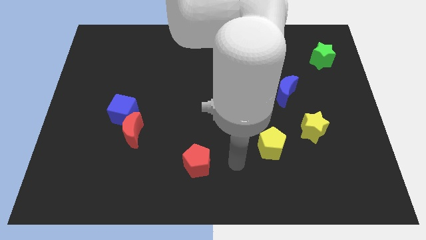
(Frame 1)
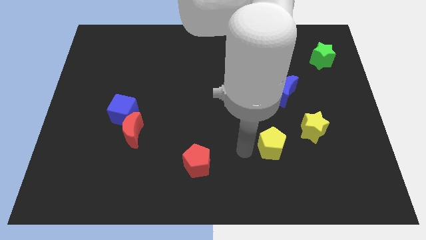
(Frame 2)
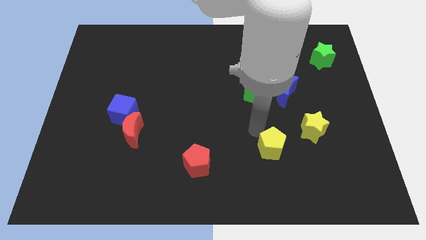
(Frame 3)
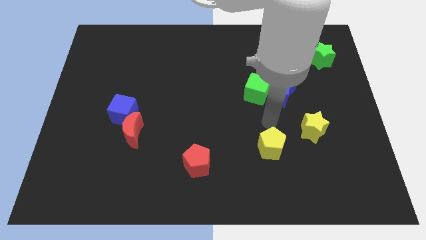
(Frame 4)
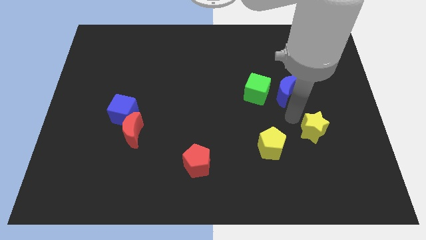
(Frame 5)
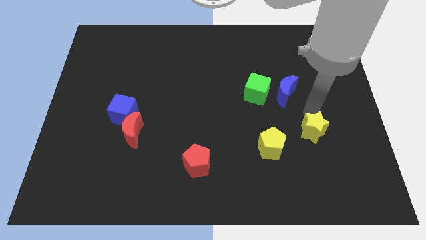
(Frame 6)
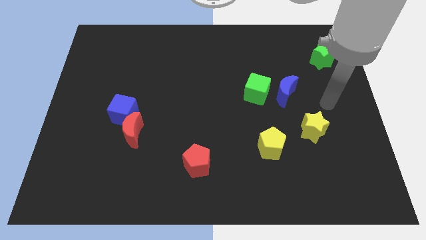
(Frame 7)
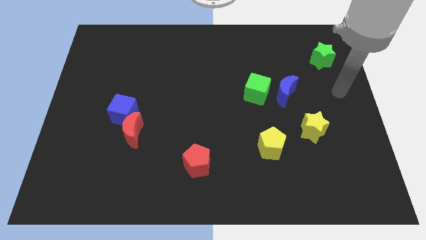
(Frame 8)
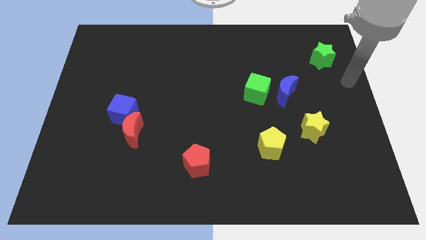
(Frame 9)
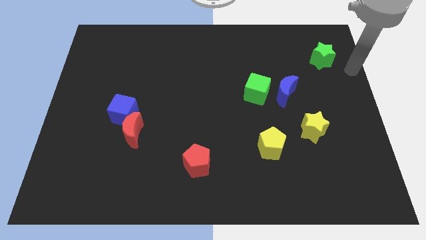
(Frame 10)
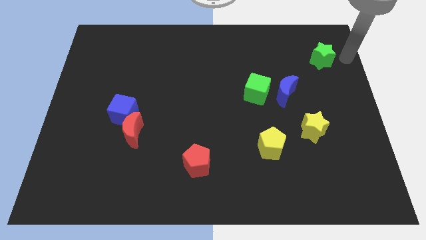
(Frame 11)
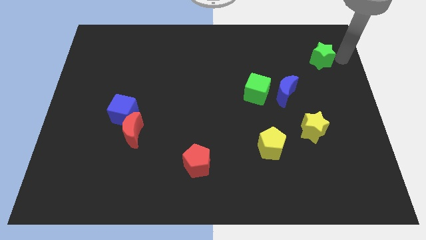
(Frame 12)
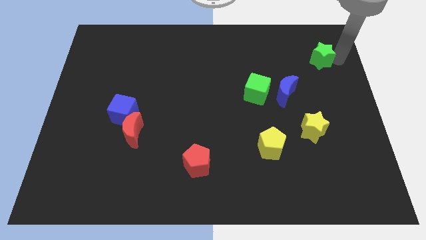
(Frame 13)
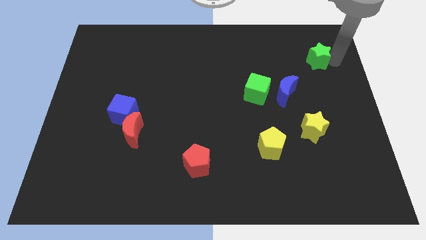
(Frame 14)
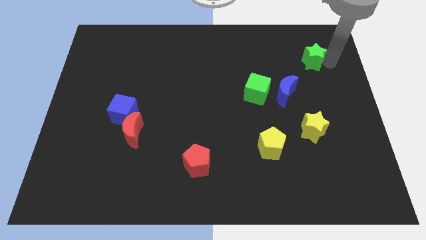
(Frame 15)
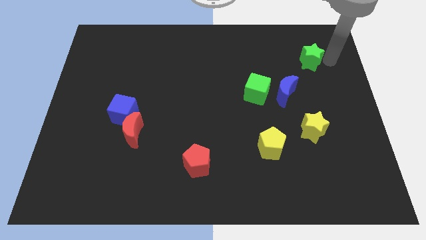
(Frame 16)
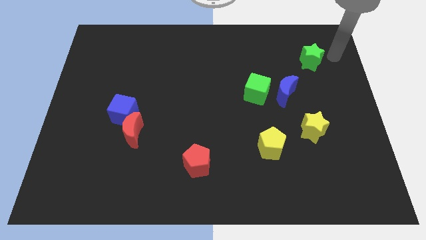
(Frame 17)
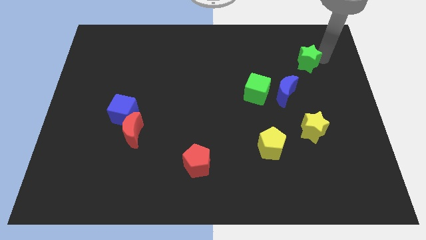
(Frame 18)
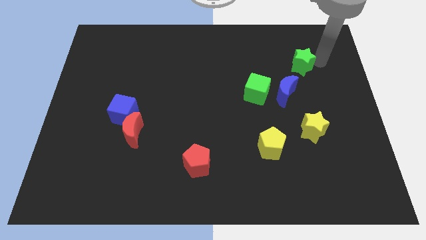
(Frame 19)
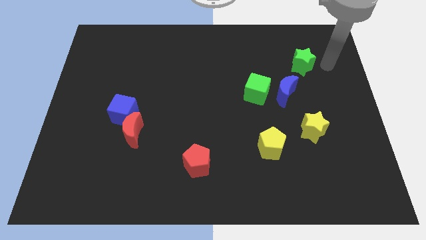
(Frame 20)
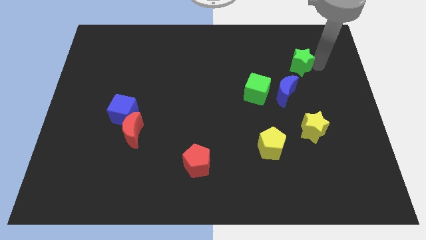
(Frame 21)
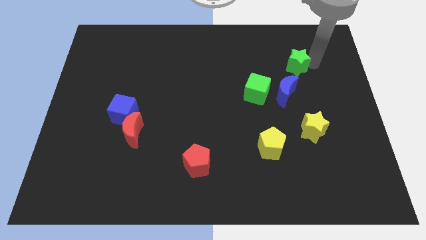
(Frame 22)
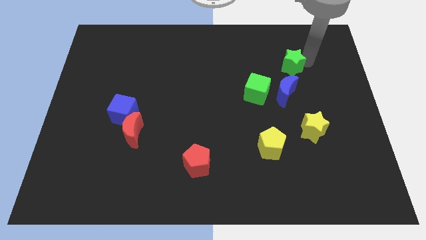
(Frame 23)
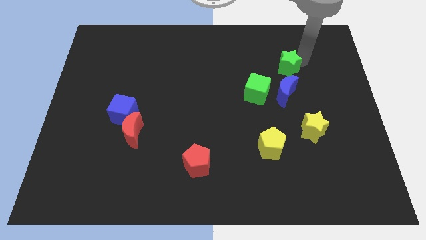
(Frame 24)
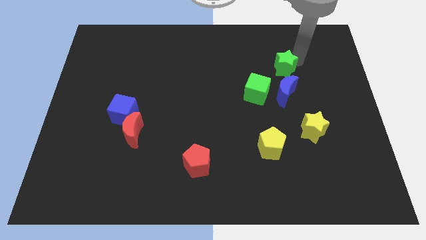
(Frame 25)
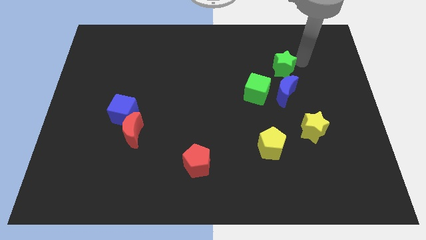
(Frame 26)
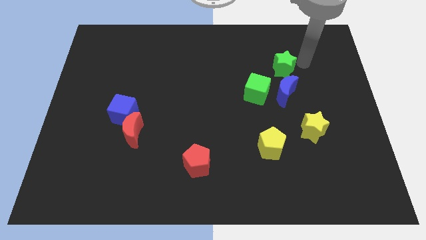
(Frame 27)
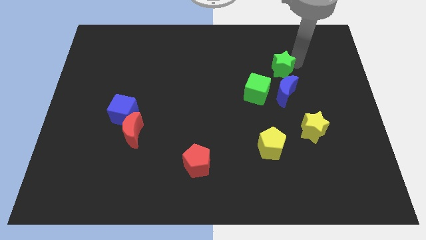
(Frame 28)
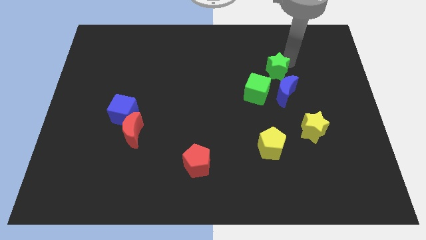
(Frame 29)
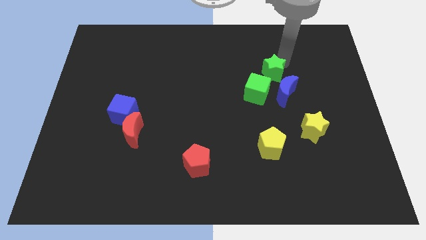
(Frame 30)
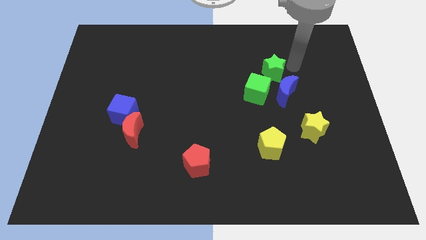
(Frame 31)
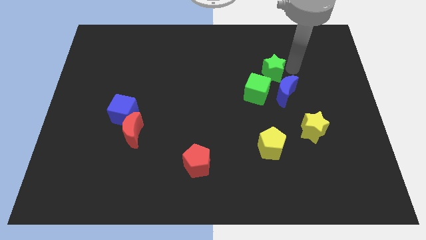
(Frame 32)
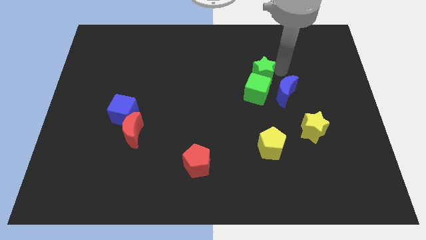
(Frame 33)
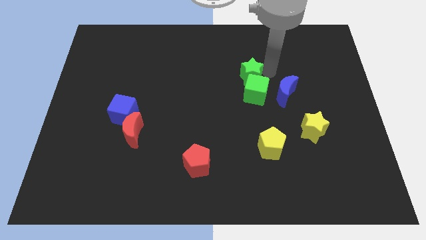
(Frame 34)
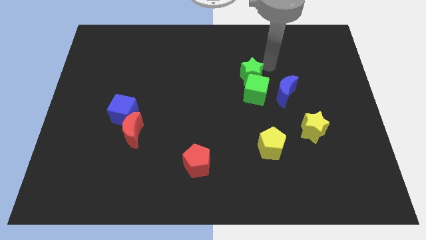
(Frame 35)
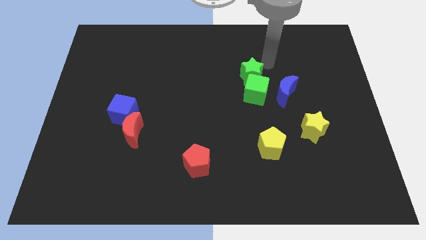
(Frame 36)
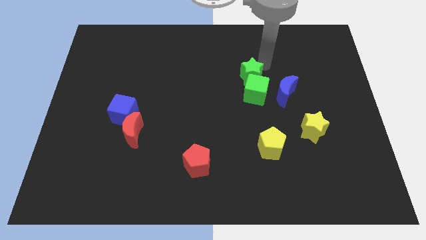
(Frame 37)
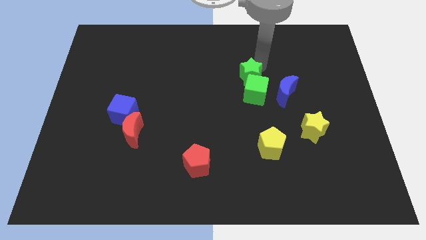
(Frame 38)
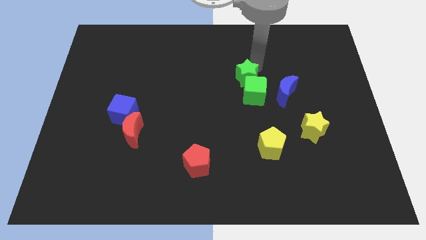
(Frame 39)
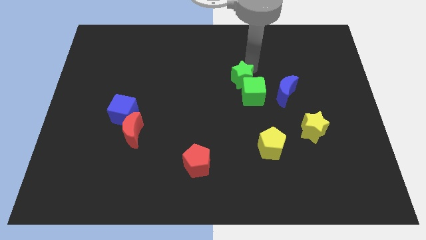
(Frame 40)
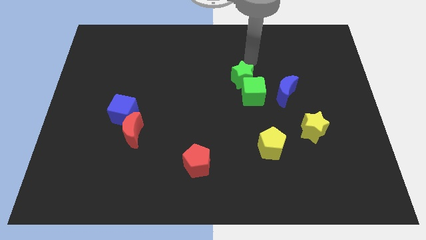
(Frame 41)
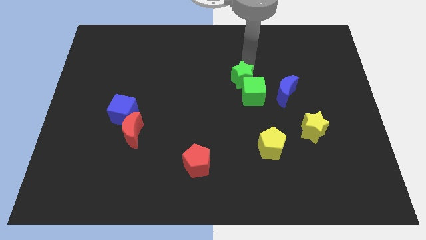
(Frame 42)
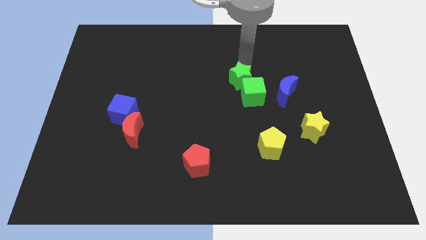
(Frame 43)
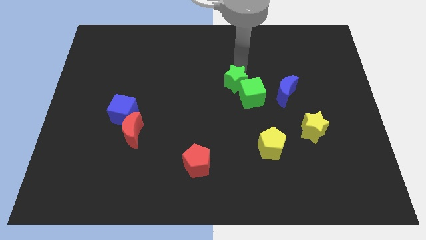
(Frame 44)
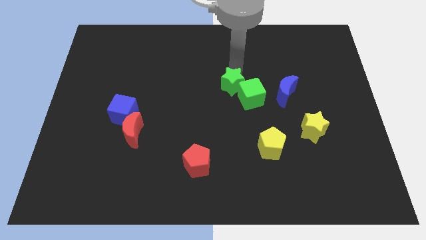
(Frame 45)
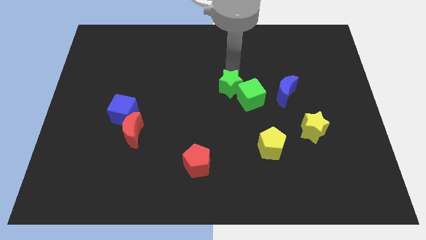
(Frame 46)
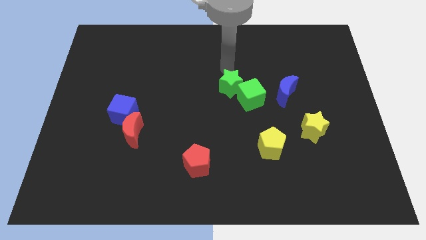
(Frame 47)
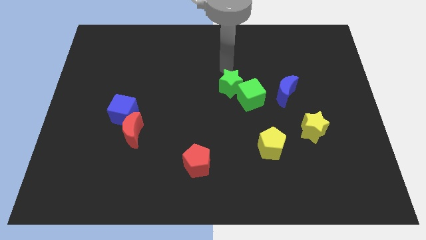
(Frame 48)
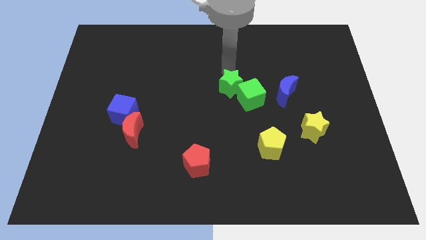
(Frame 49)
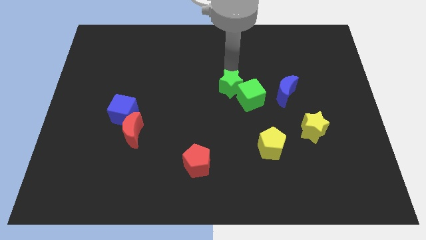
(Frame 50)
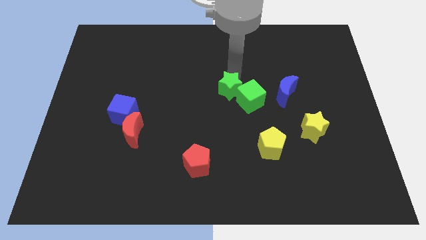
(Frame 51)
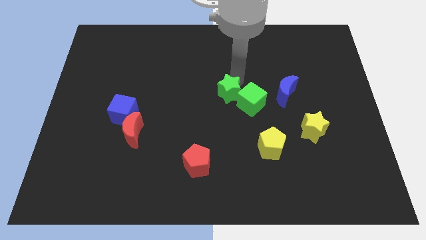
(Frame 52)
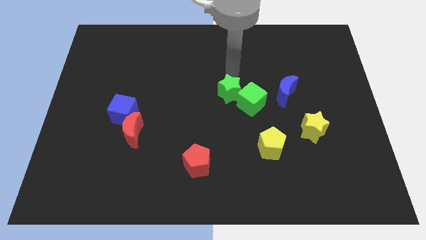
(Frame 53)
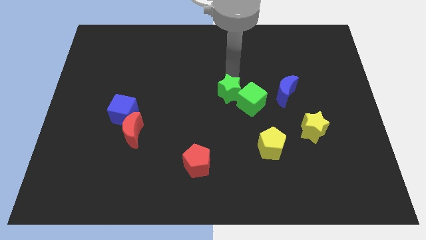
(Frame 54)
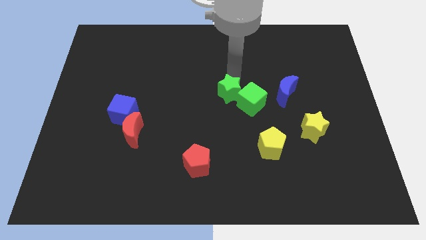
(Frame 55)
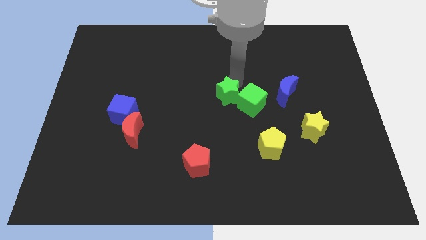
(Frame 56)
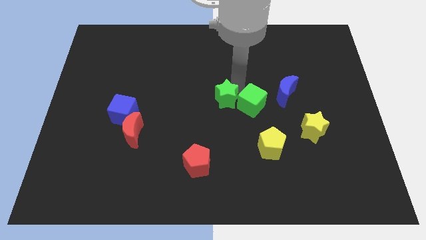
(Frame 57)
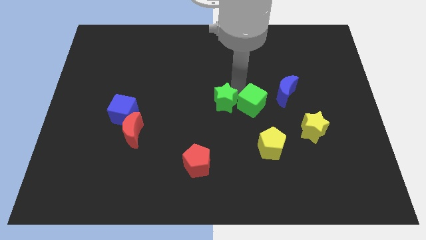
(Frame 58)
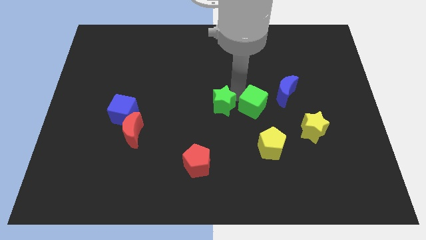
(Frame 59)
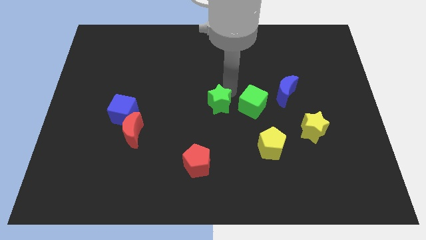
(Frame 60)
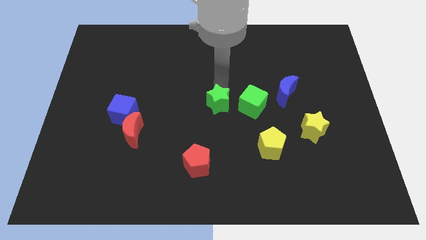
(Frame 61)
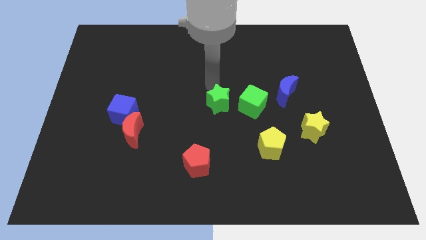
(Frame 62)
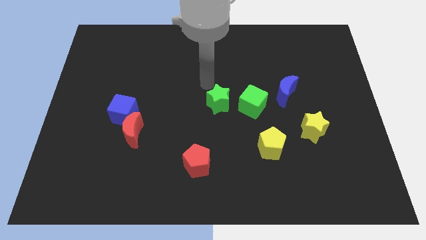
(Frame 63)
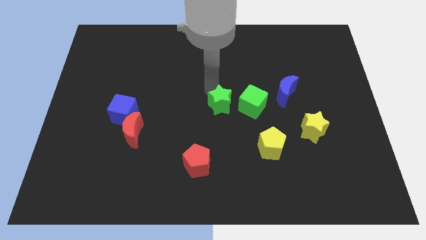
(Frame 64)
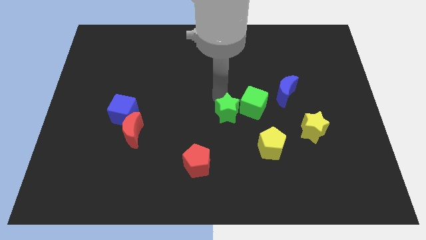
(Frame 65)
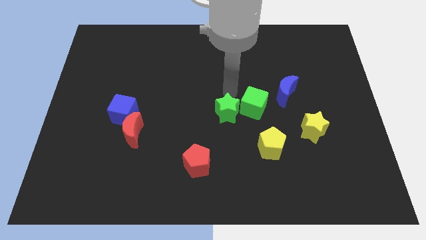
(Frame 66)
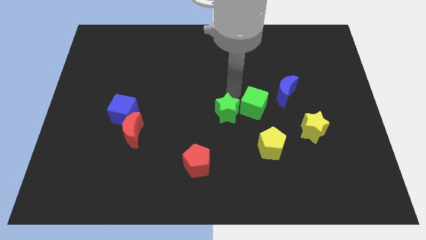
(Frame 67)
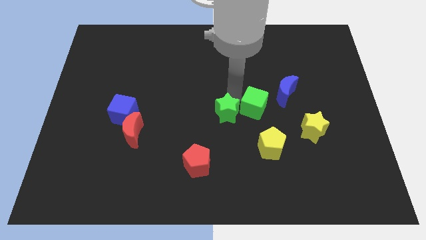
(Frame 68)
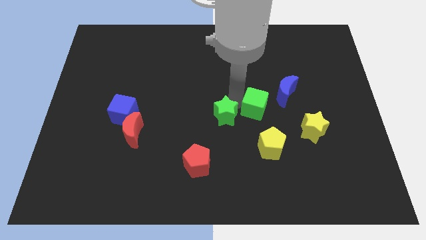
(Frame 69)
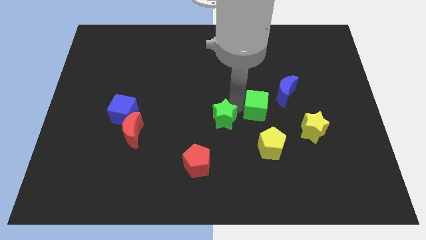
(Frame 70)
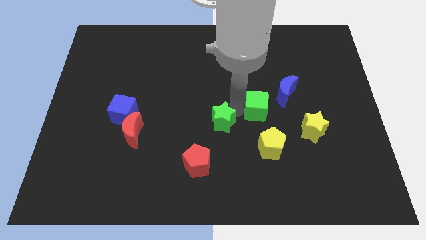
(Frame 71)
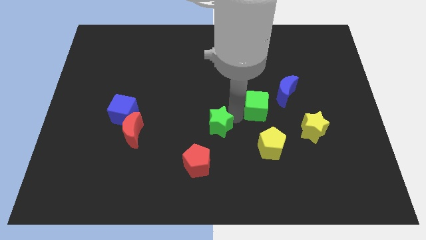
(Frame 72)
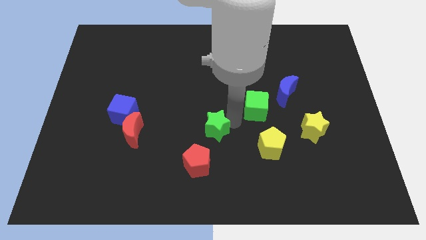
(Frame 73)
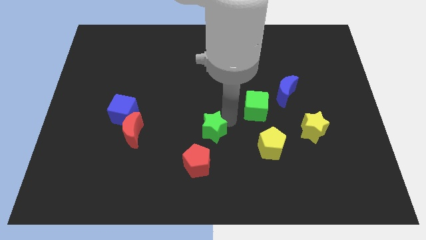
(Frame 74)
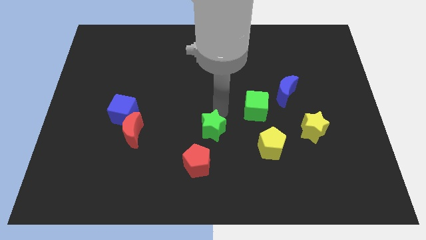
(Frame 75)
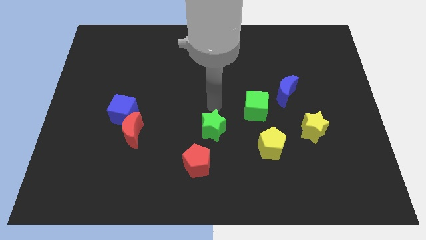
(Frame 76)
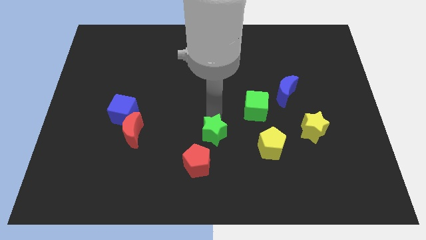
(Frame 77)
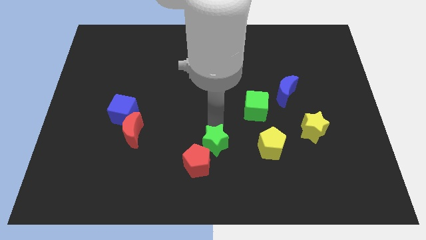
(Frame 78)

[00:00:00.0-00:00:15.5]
put the green star towards the red pentagon
